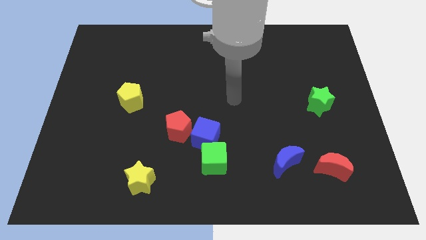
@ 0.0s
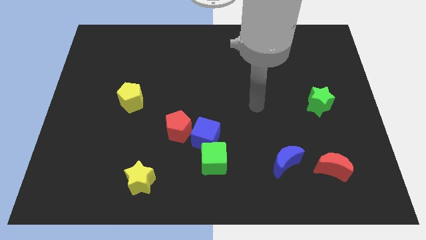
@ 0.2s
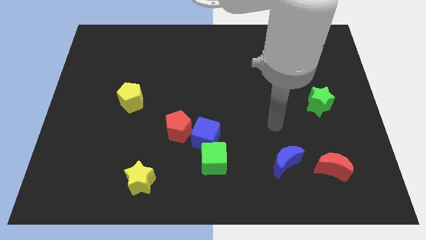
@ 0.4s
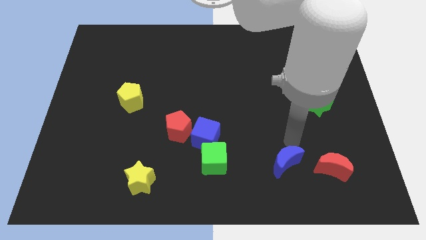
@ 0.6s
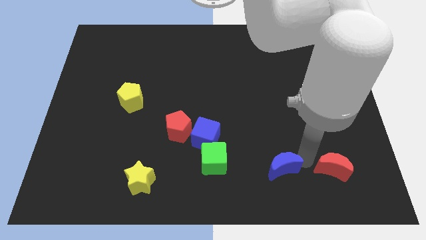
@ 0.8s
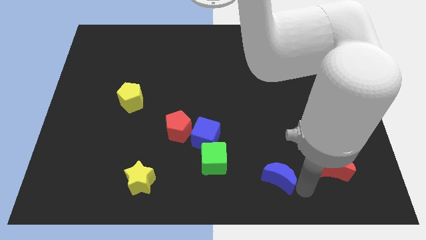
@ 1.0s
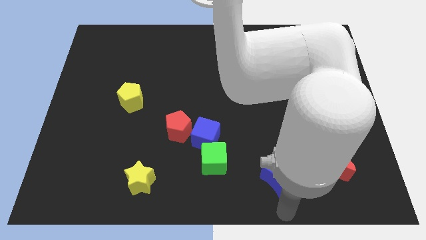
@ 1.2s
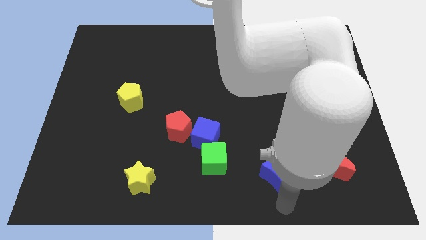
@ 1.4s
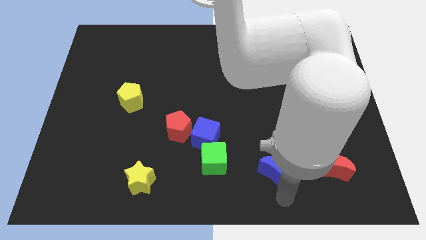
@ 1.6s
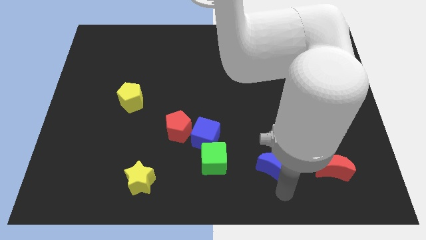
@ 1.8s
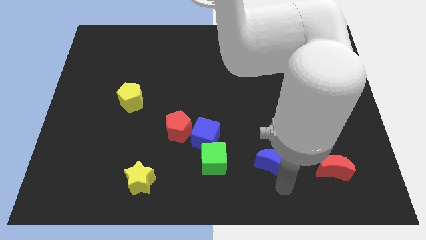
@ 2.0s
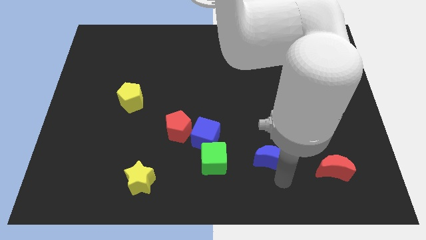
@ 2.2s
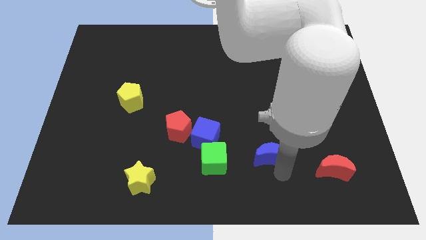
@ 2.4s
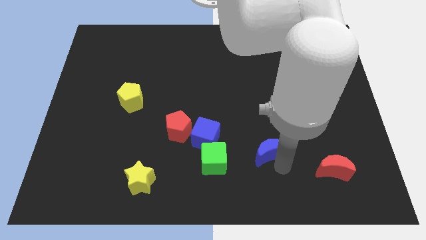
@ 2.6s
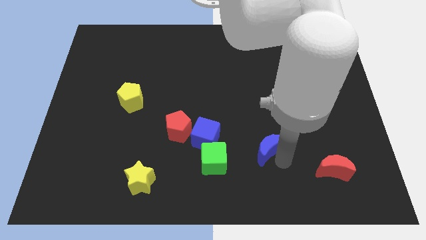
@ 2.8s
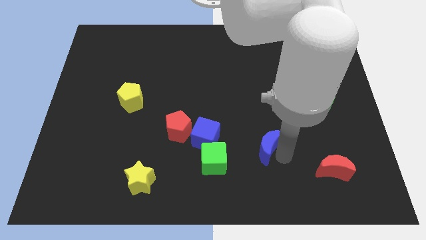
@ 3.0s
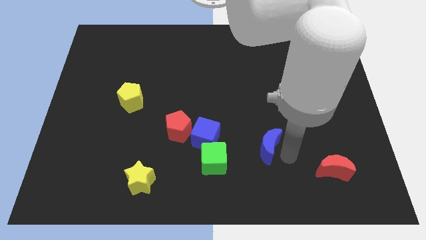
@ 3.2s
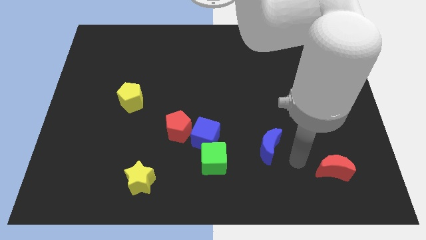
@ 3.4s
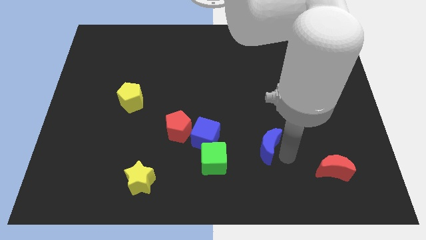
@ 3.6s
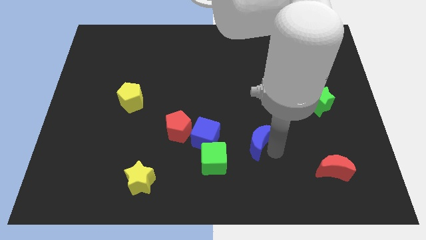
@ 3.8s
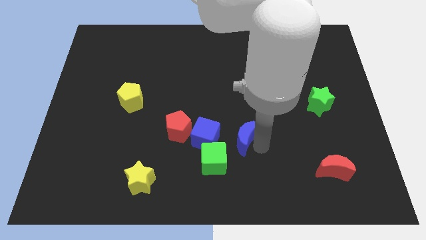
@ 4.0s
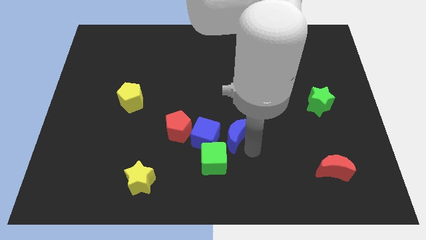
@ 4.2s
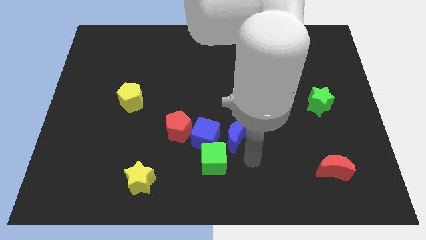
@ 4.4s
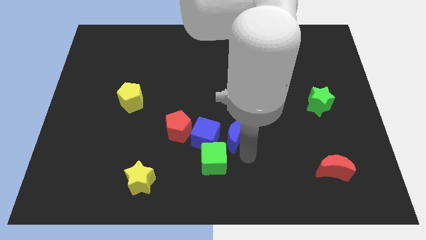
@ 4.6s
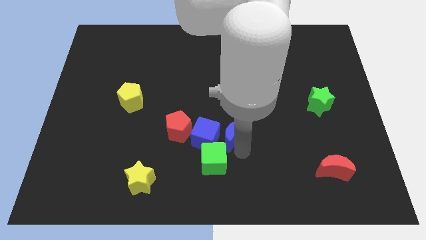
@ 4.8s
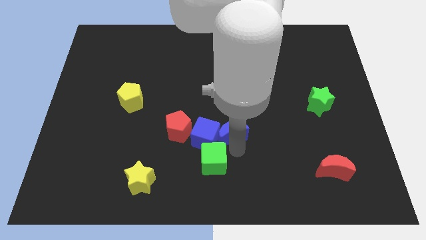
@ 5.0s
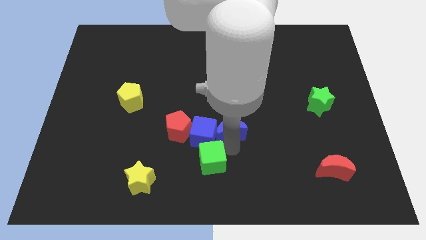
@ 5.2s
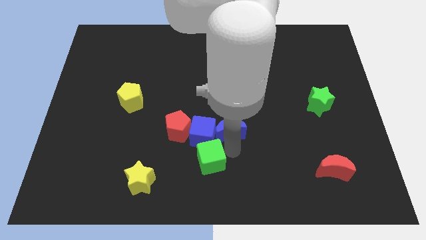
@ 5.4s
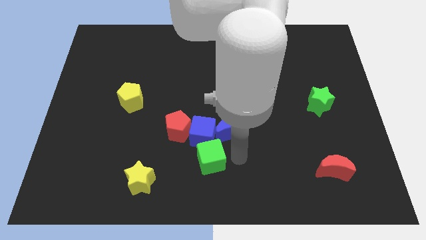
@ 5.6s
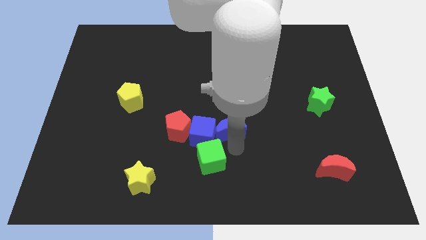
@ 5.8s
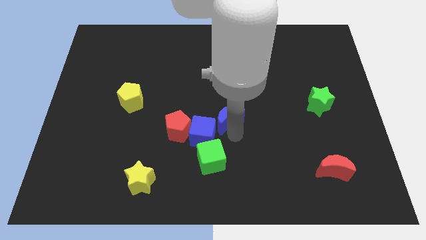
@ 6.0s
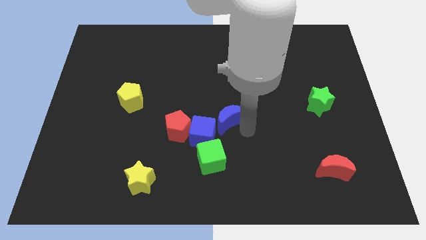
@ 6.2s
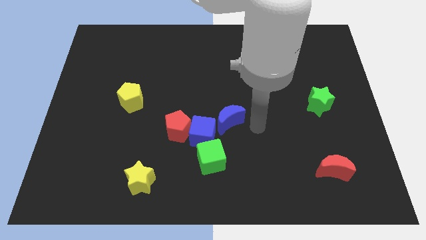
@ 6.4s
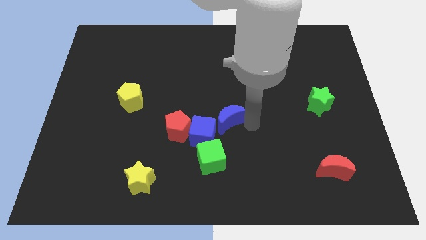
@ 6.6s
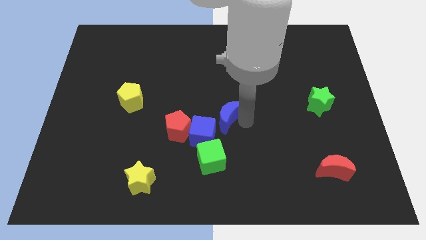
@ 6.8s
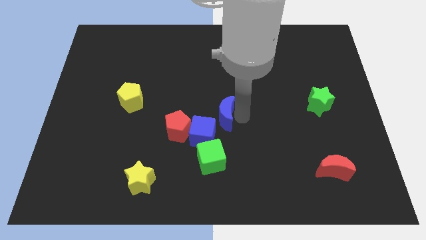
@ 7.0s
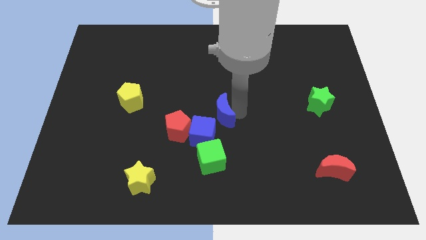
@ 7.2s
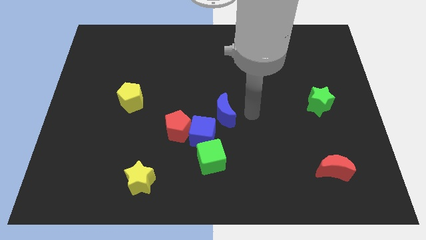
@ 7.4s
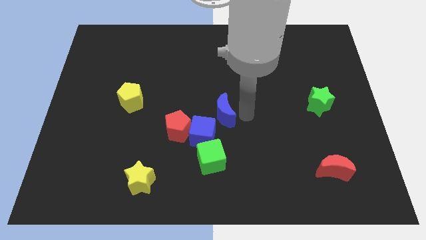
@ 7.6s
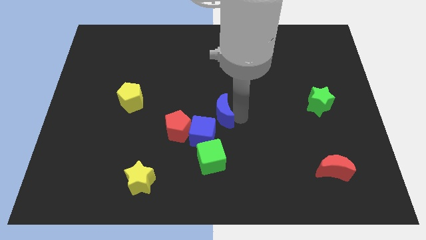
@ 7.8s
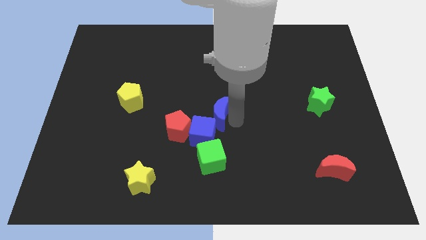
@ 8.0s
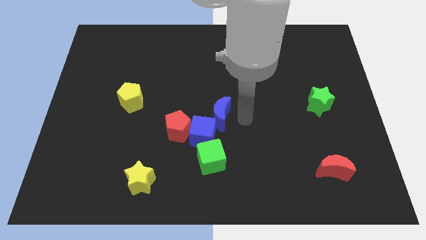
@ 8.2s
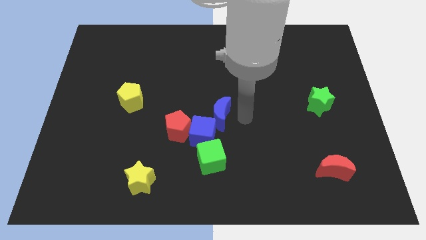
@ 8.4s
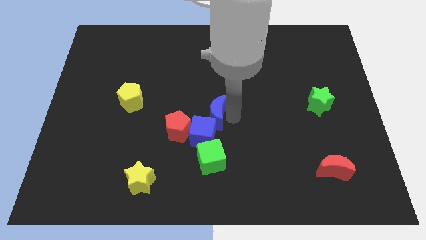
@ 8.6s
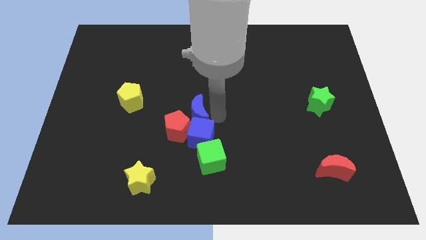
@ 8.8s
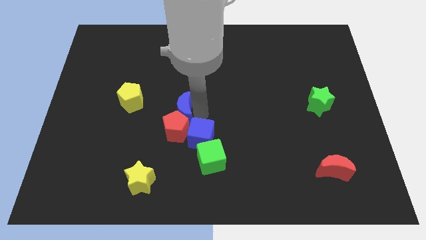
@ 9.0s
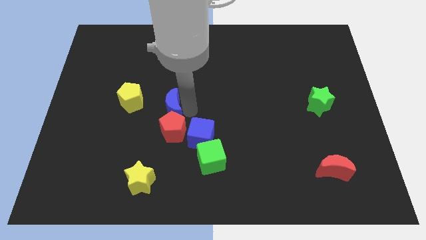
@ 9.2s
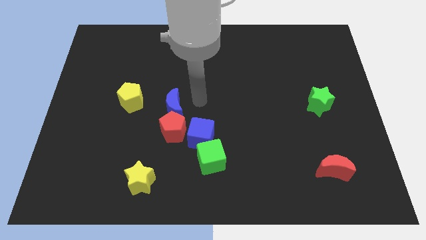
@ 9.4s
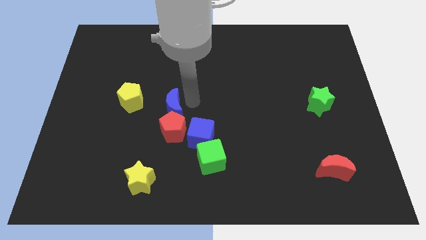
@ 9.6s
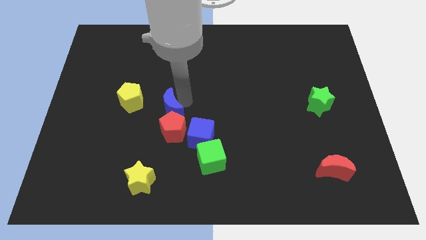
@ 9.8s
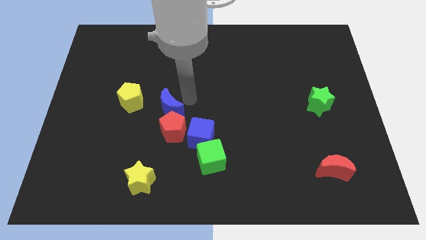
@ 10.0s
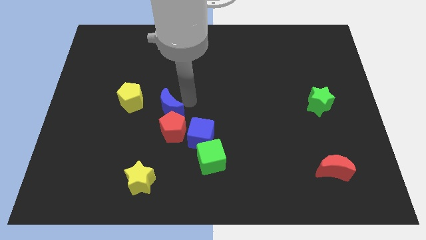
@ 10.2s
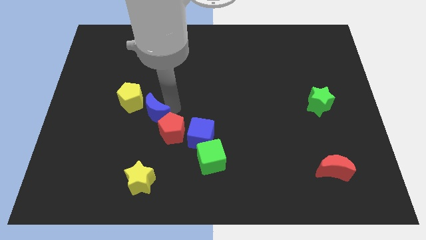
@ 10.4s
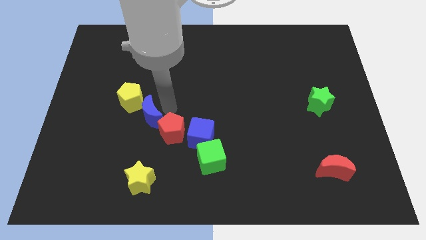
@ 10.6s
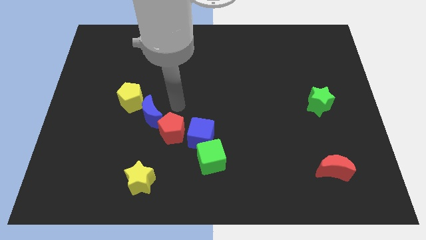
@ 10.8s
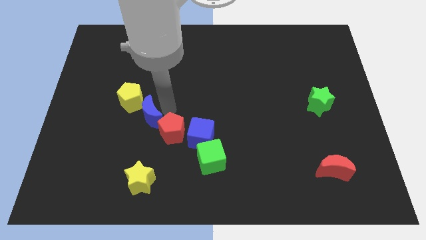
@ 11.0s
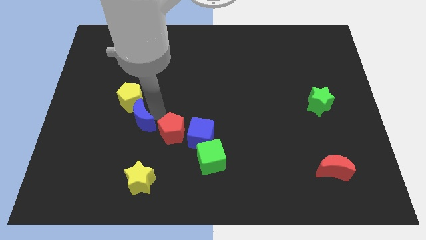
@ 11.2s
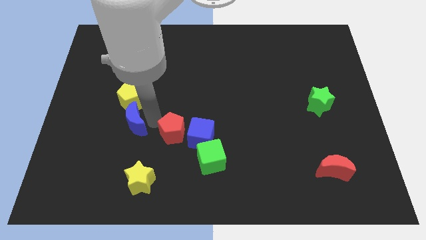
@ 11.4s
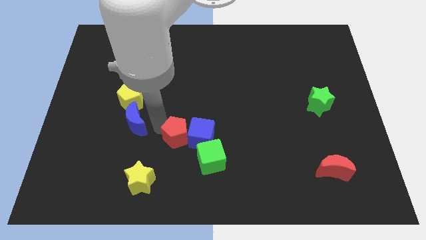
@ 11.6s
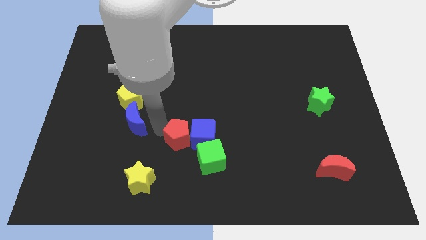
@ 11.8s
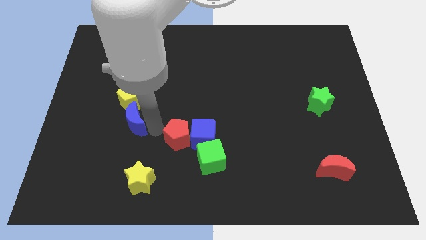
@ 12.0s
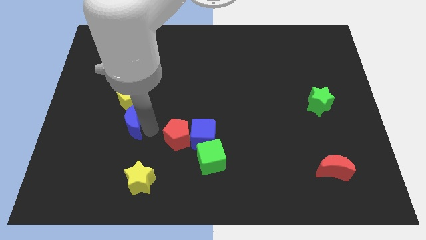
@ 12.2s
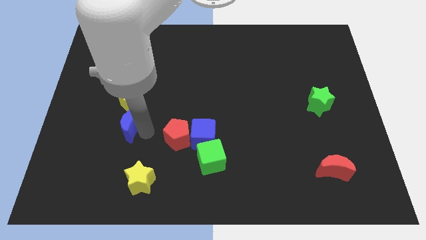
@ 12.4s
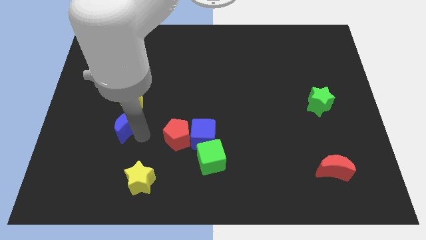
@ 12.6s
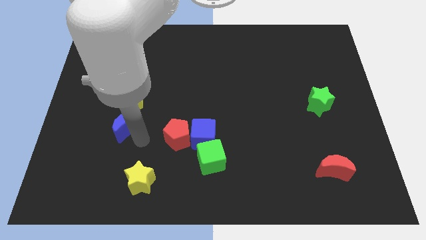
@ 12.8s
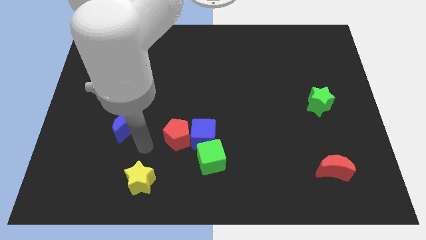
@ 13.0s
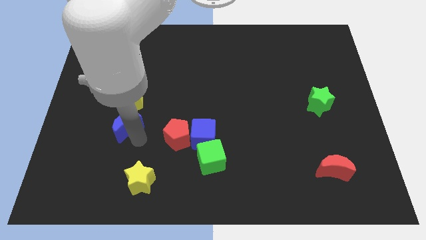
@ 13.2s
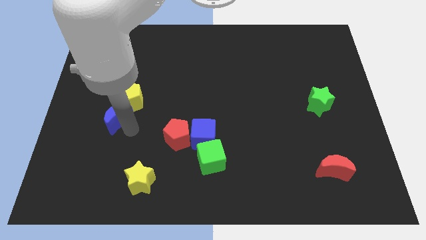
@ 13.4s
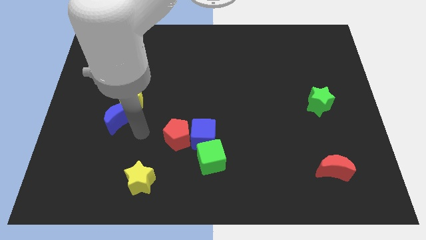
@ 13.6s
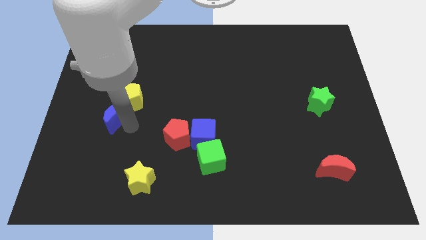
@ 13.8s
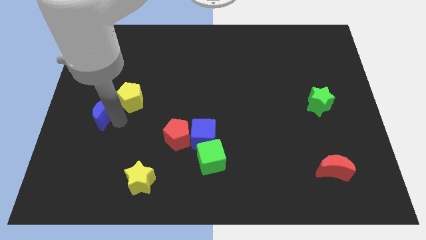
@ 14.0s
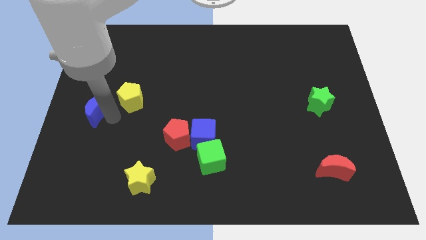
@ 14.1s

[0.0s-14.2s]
move the blue moon to the left side
